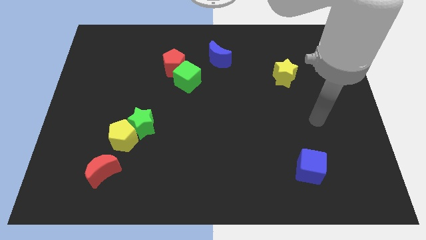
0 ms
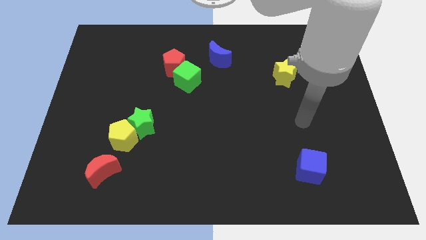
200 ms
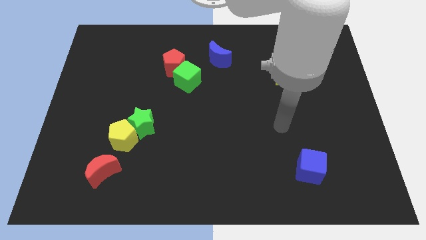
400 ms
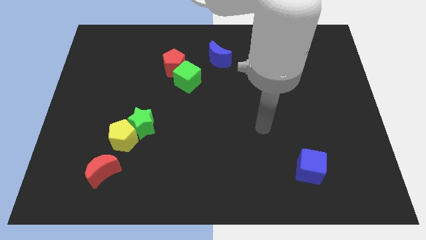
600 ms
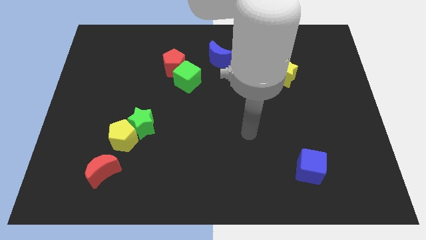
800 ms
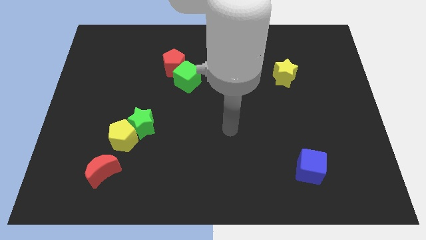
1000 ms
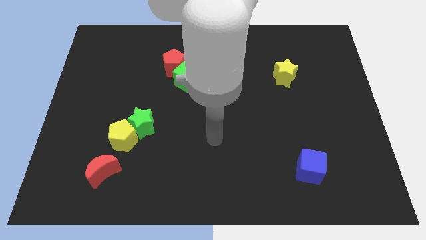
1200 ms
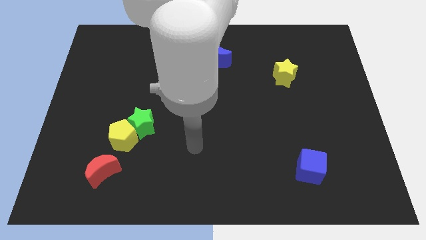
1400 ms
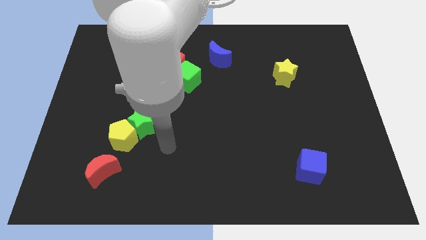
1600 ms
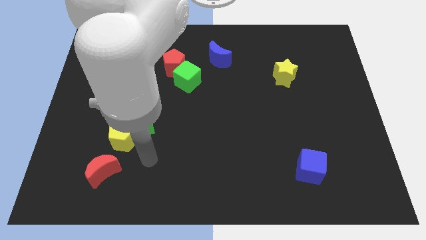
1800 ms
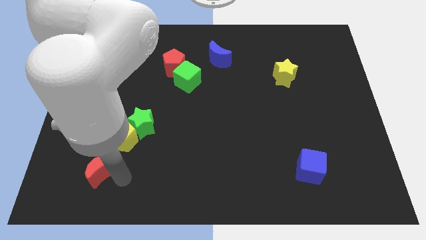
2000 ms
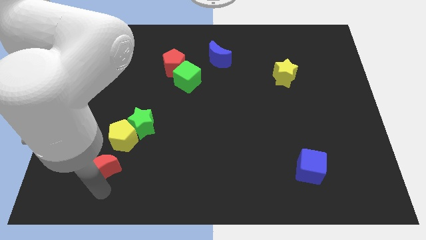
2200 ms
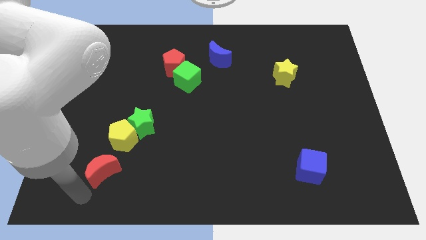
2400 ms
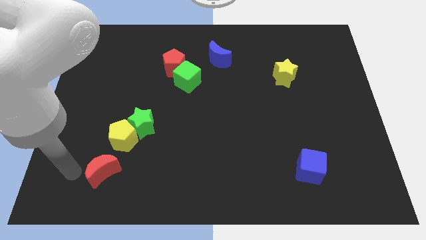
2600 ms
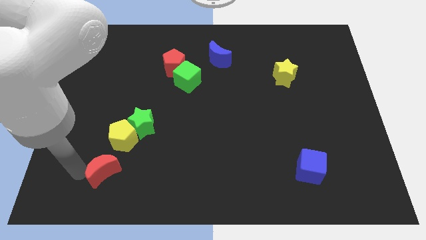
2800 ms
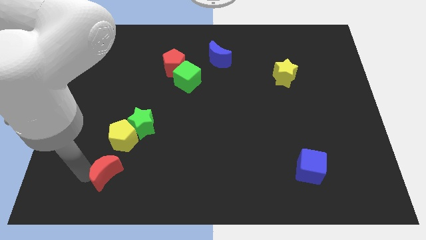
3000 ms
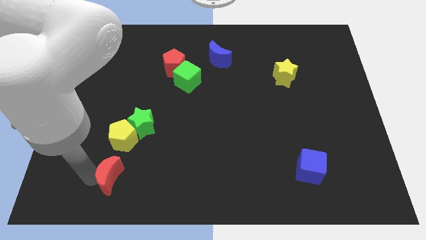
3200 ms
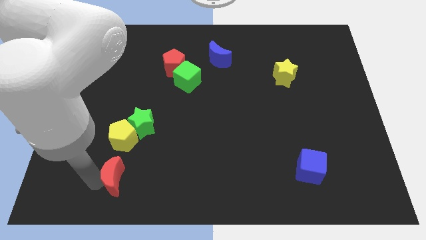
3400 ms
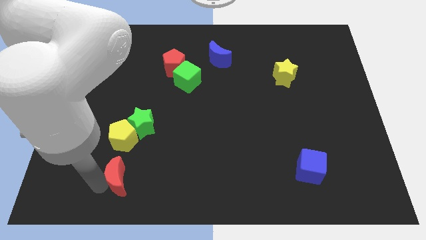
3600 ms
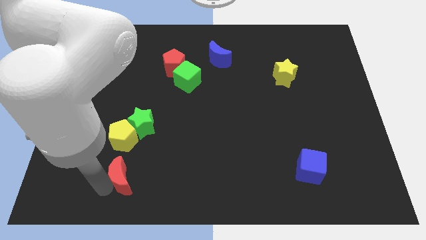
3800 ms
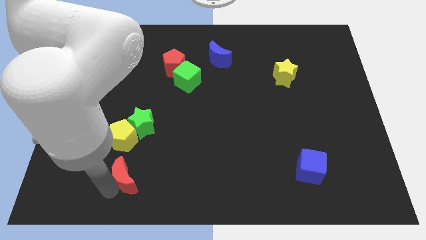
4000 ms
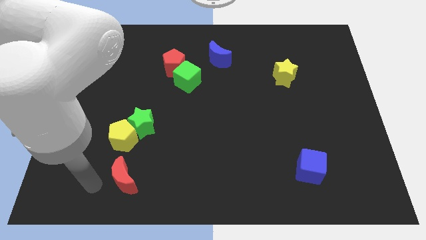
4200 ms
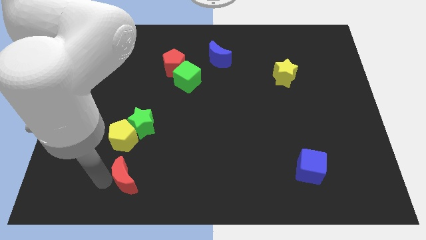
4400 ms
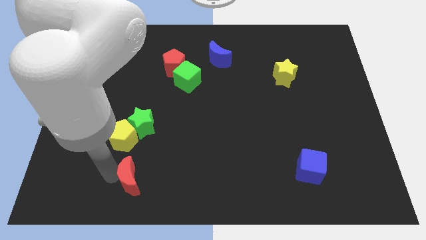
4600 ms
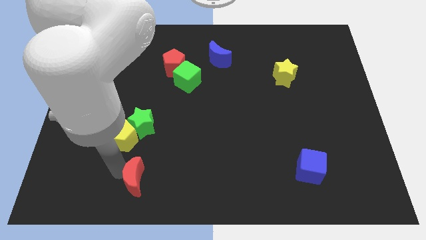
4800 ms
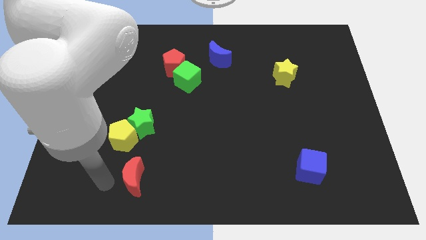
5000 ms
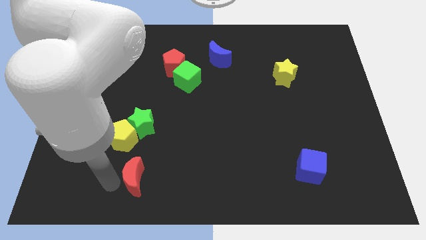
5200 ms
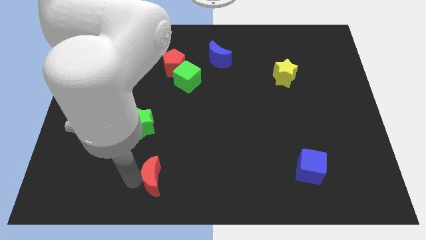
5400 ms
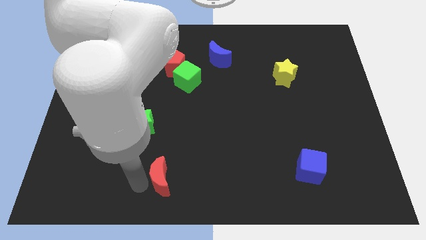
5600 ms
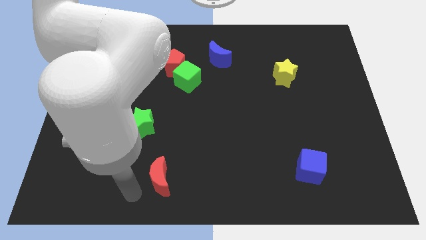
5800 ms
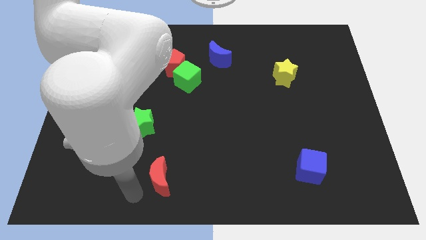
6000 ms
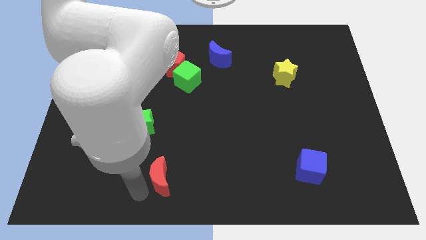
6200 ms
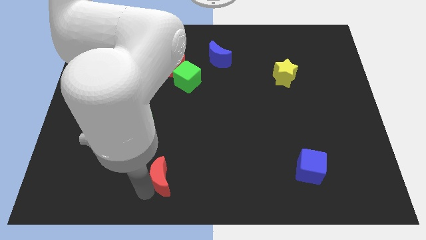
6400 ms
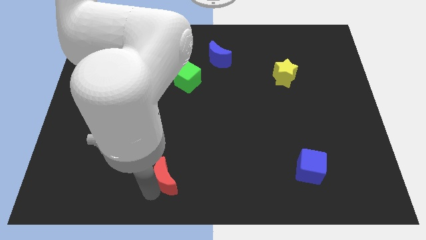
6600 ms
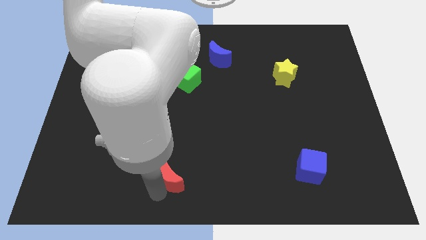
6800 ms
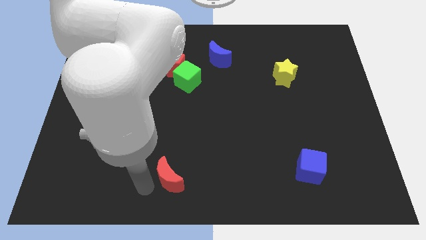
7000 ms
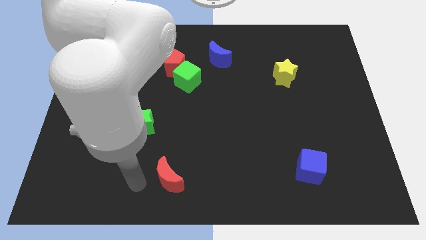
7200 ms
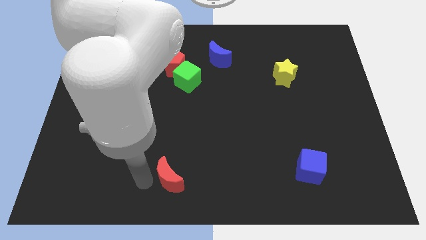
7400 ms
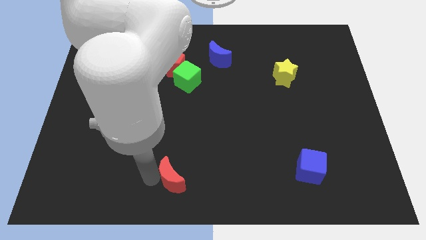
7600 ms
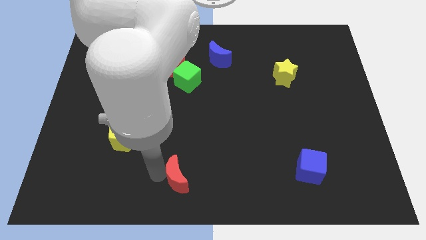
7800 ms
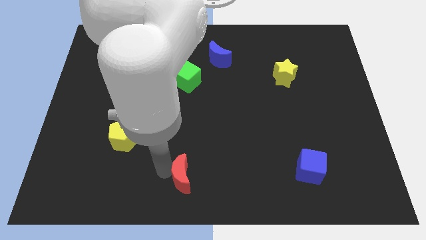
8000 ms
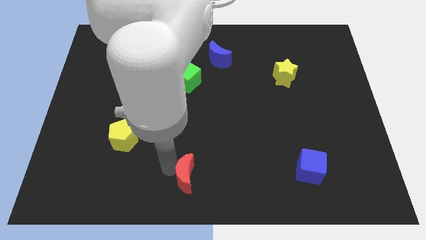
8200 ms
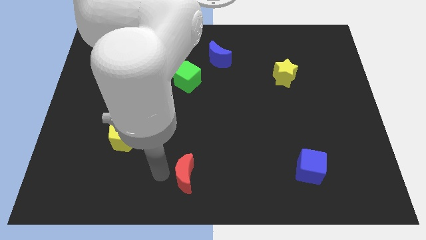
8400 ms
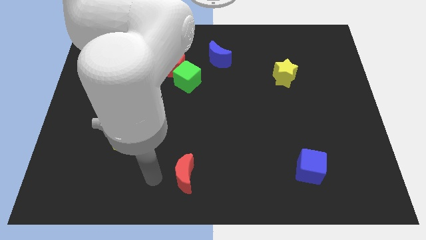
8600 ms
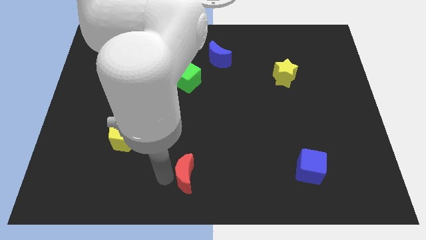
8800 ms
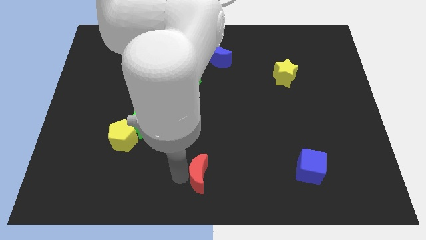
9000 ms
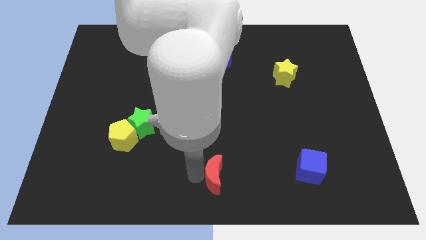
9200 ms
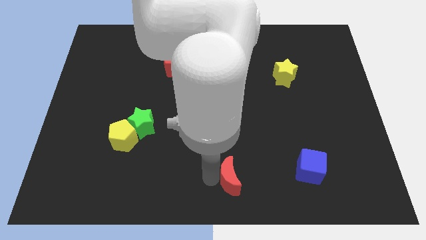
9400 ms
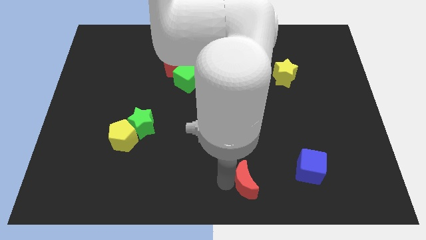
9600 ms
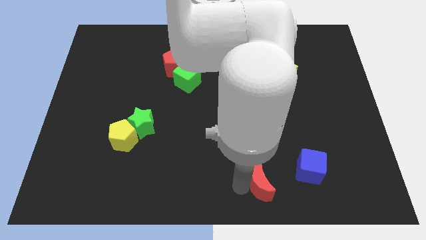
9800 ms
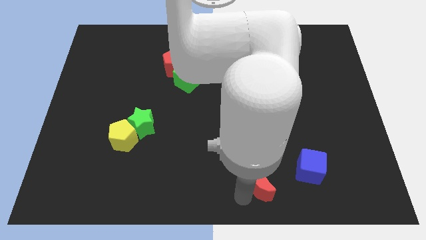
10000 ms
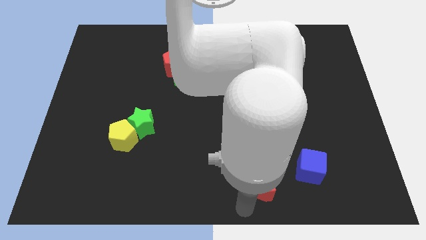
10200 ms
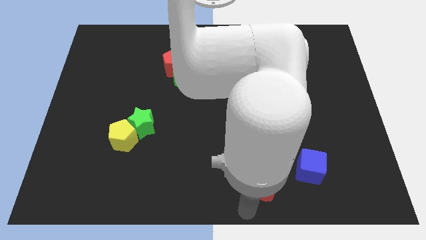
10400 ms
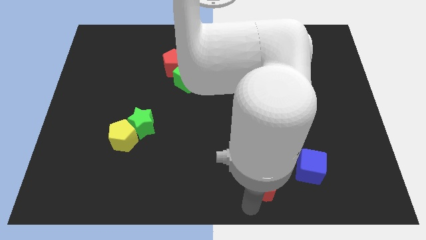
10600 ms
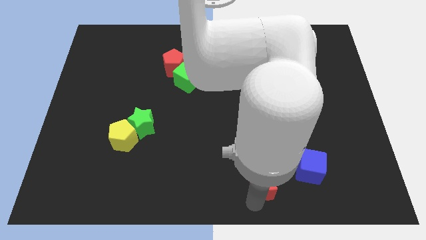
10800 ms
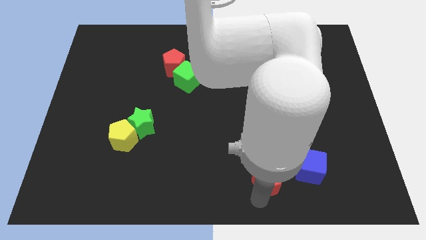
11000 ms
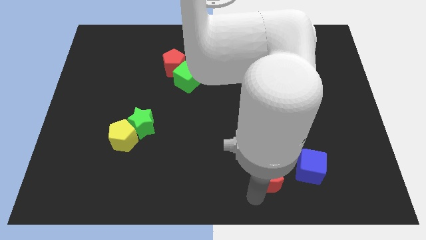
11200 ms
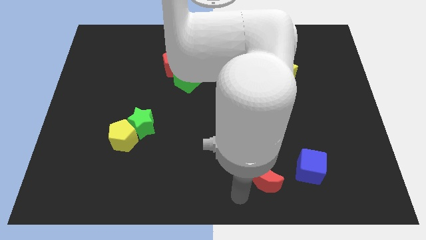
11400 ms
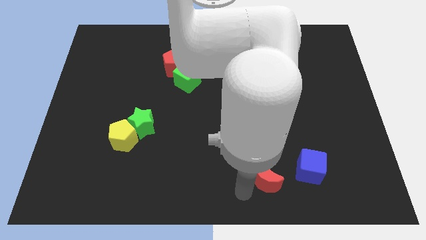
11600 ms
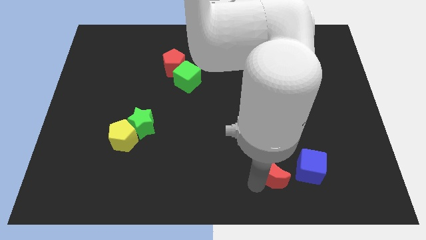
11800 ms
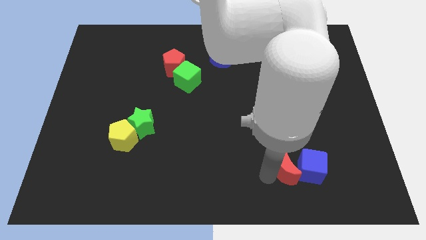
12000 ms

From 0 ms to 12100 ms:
move the red moon to the blue cube

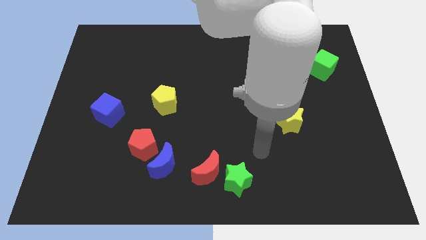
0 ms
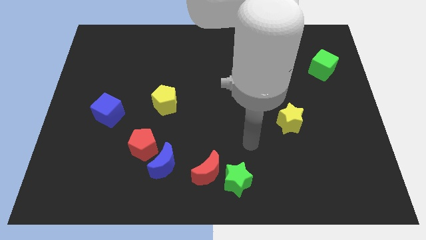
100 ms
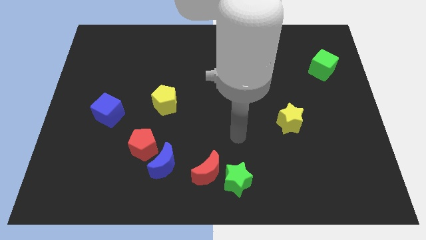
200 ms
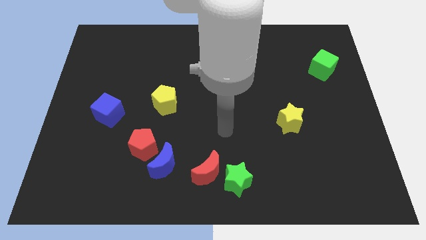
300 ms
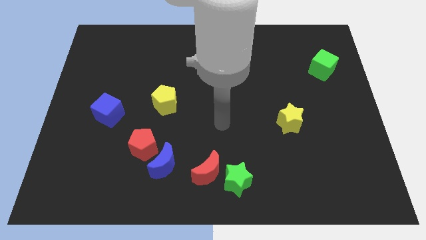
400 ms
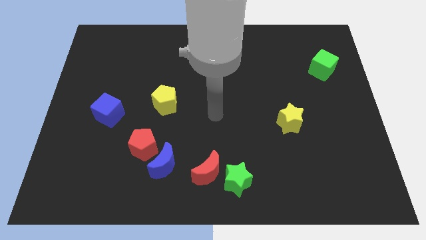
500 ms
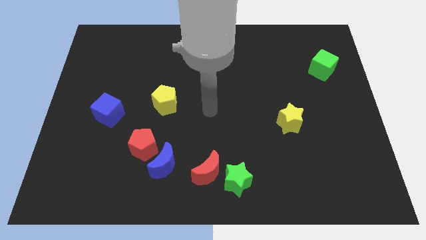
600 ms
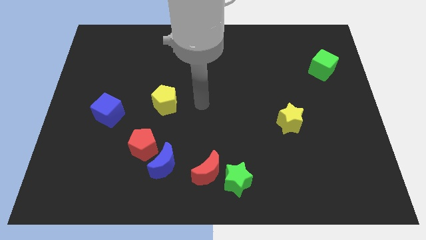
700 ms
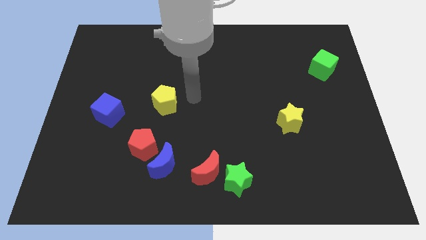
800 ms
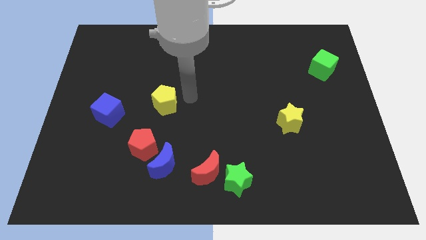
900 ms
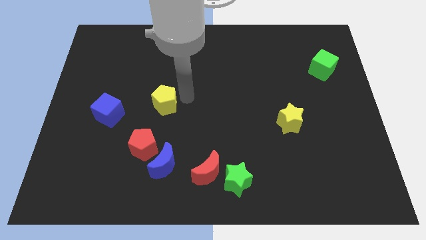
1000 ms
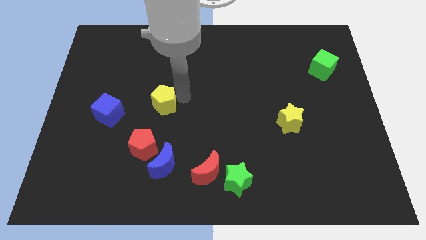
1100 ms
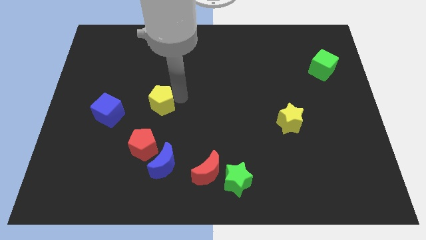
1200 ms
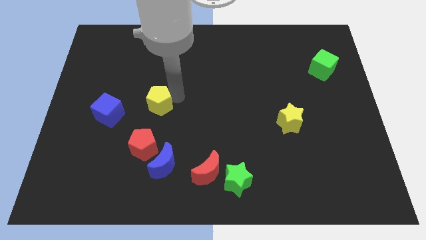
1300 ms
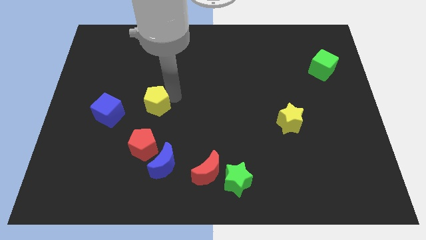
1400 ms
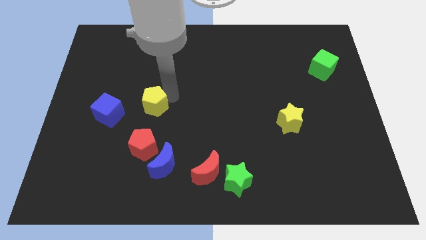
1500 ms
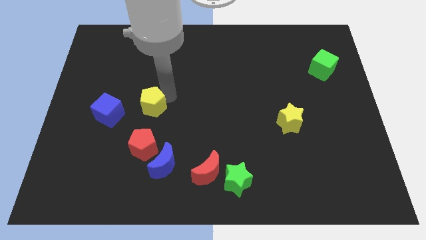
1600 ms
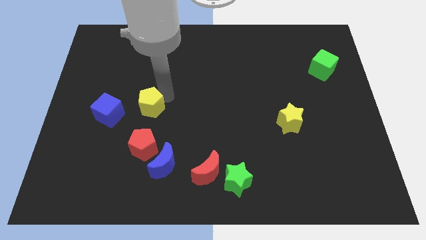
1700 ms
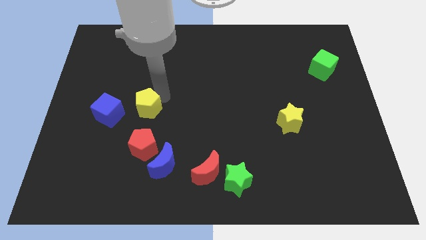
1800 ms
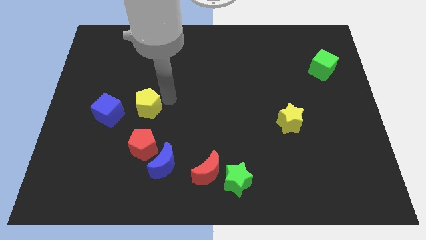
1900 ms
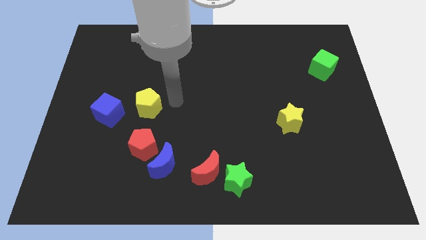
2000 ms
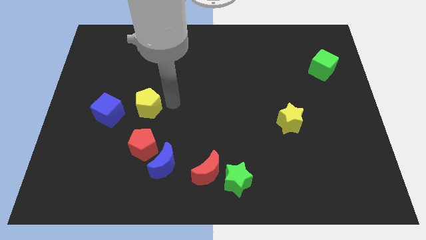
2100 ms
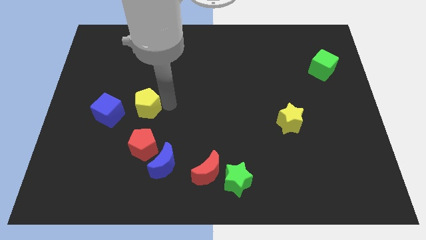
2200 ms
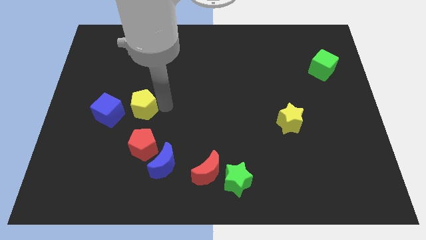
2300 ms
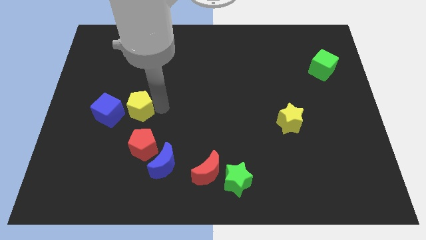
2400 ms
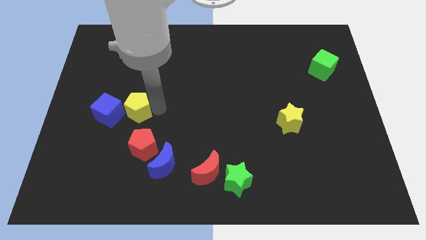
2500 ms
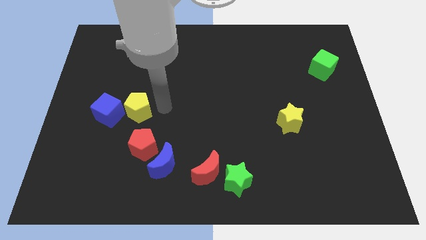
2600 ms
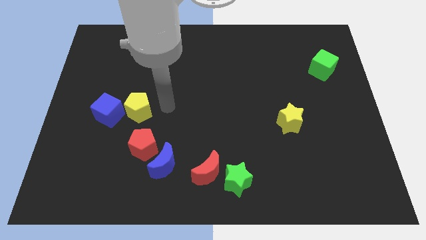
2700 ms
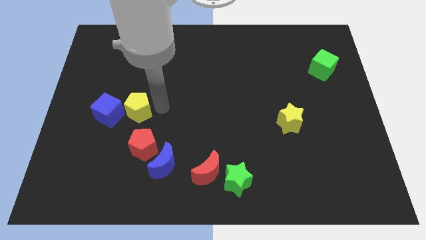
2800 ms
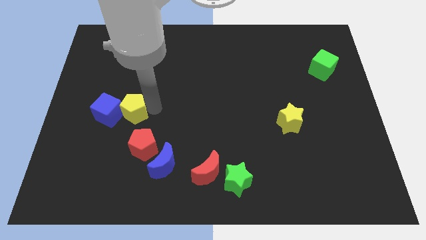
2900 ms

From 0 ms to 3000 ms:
push the yellow pentagon towards the blue cube
